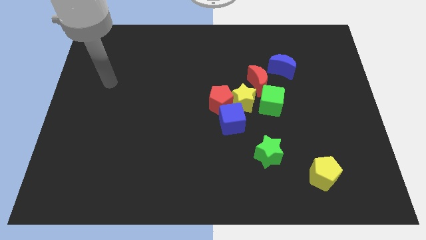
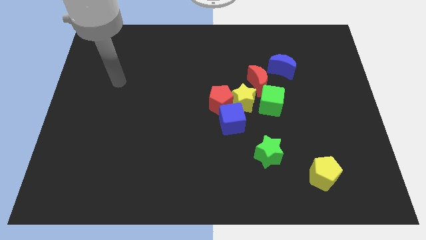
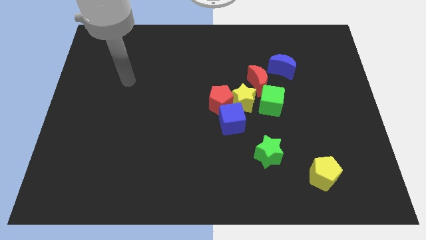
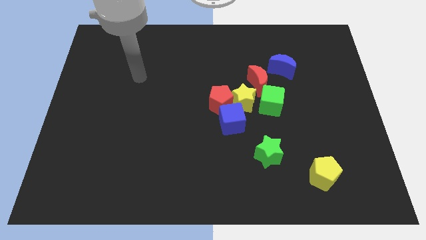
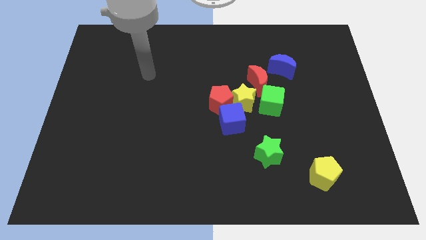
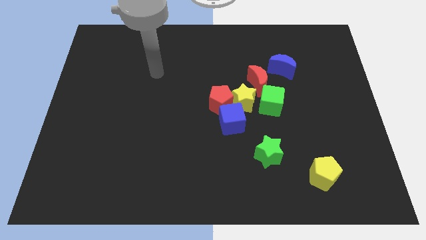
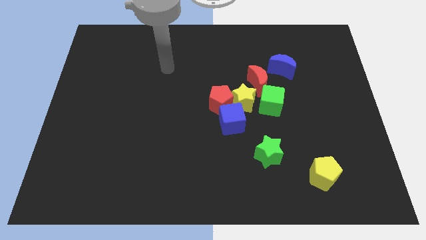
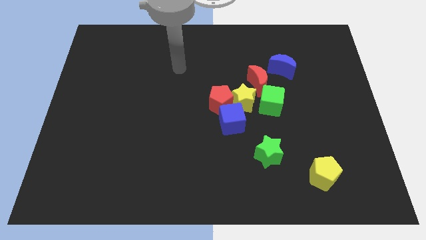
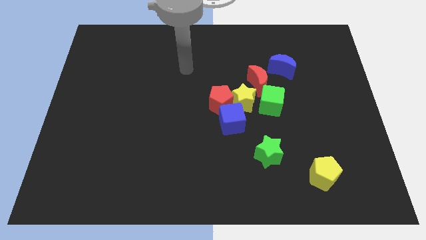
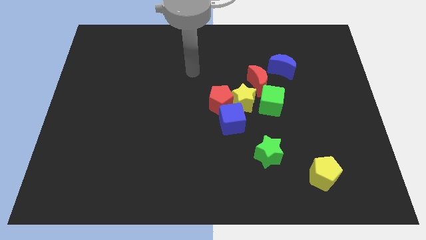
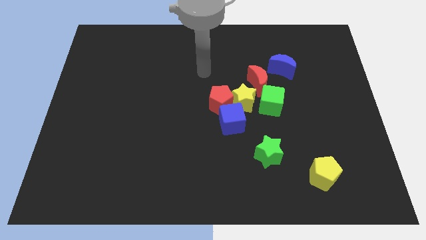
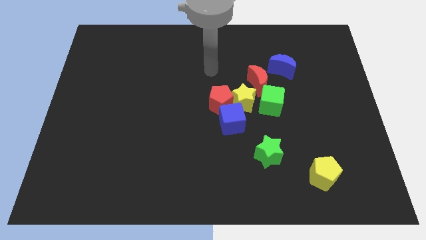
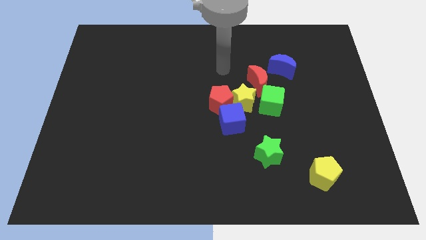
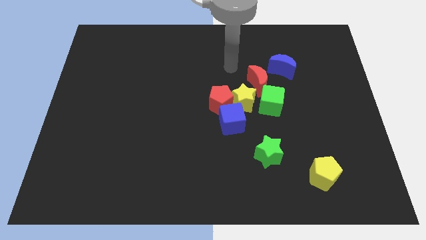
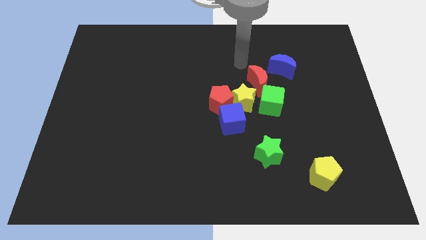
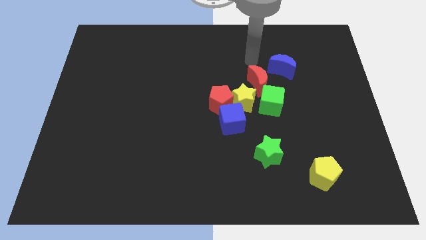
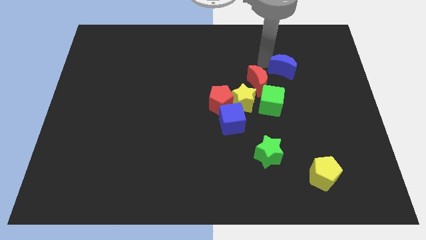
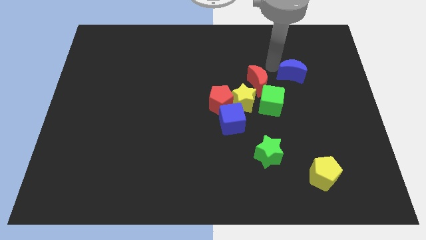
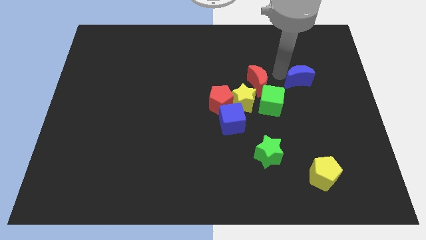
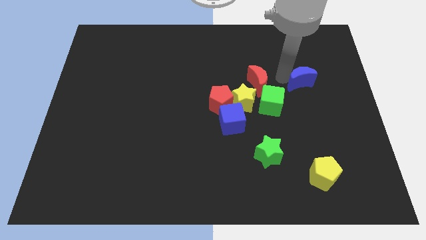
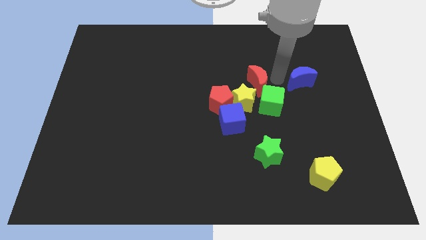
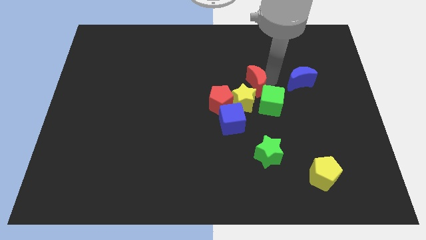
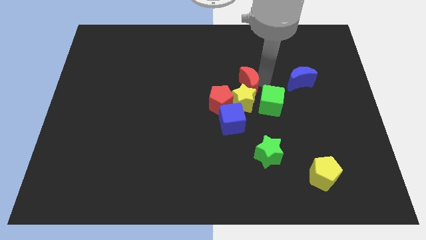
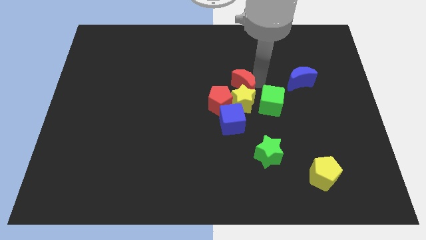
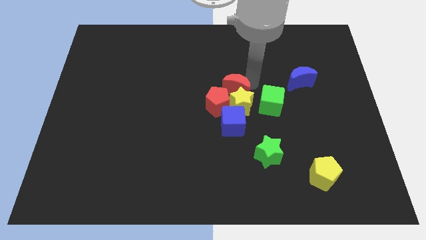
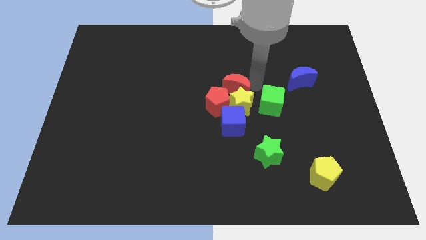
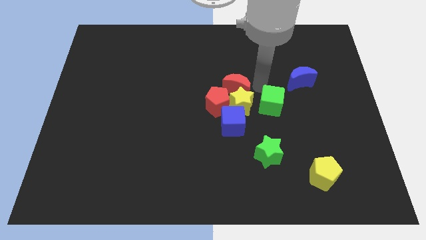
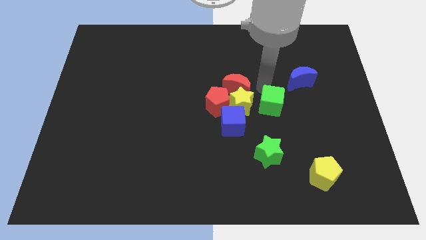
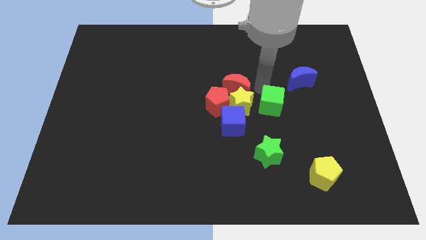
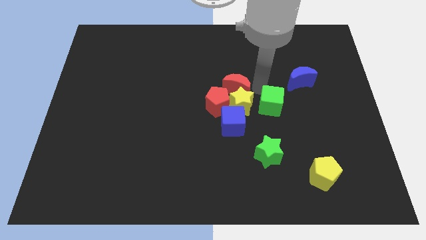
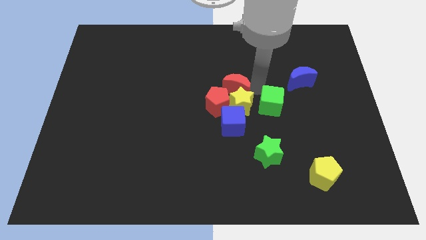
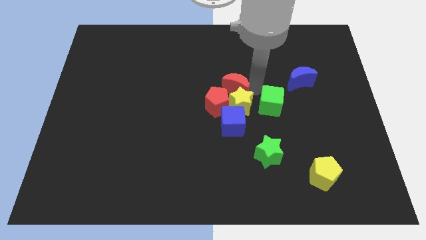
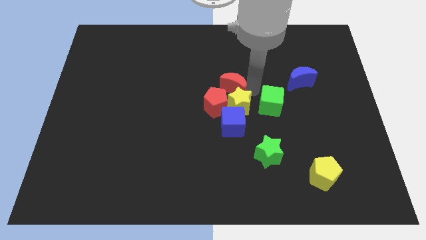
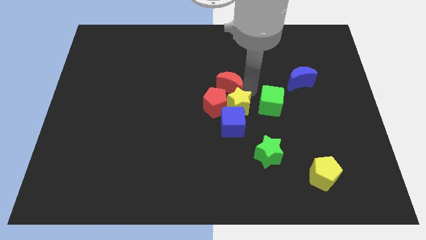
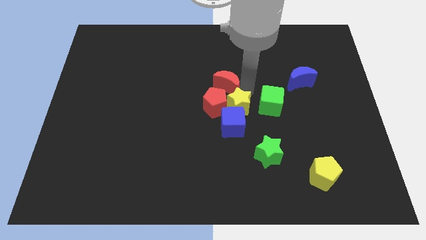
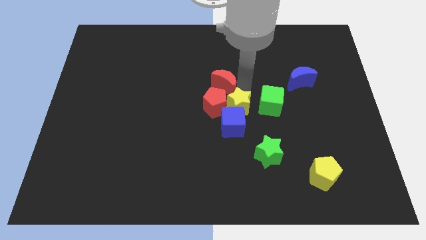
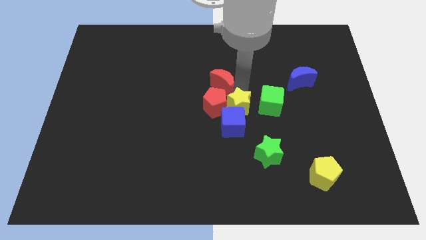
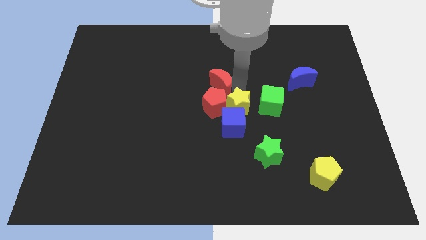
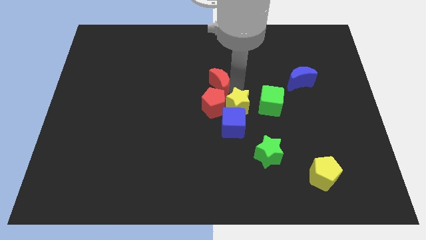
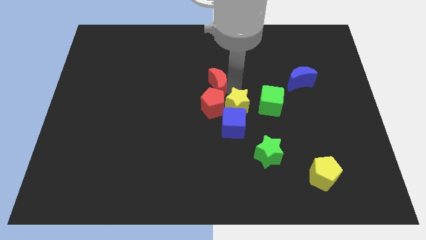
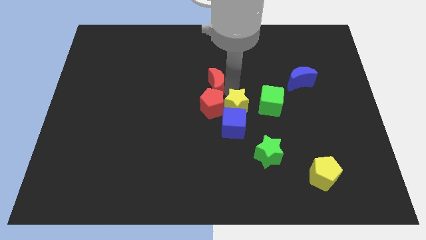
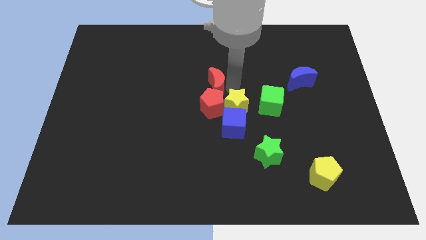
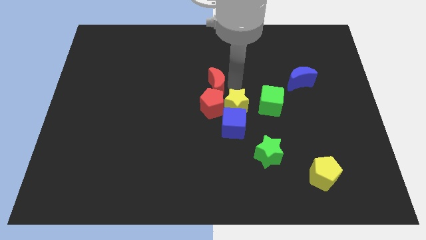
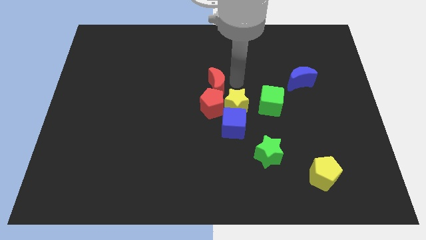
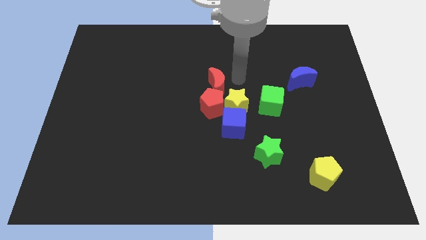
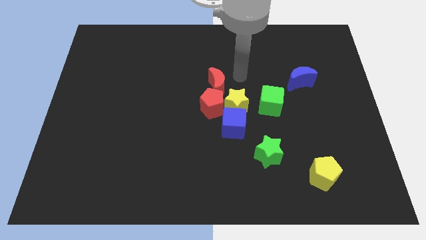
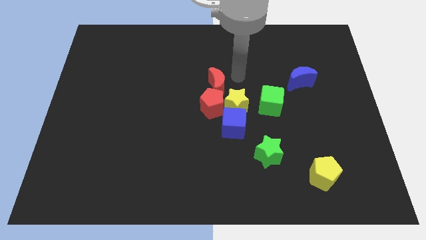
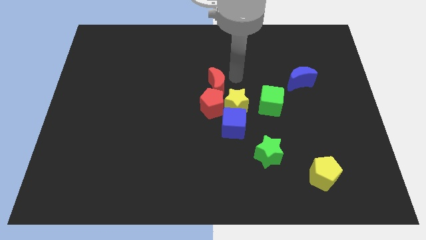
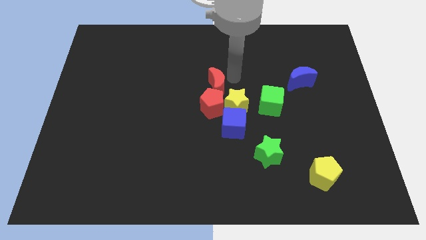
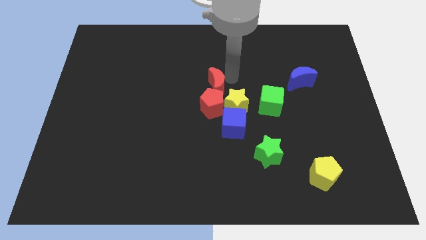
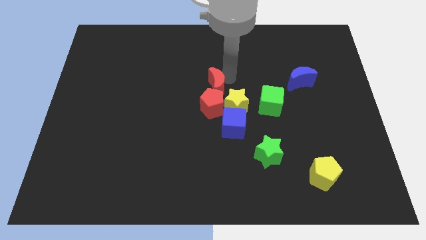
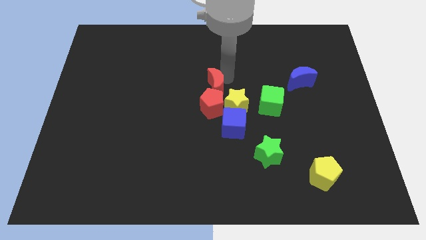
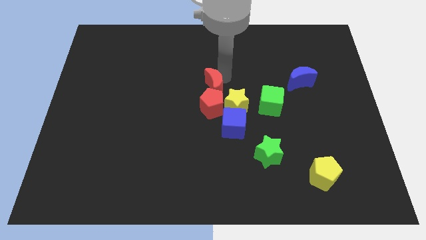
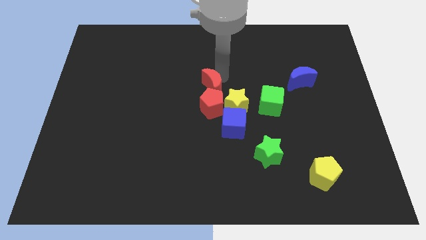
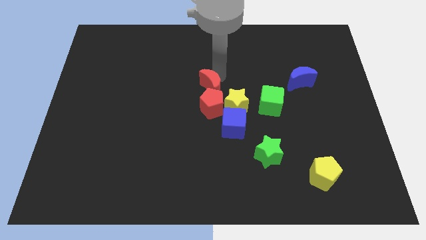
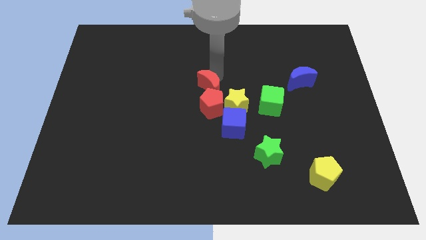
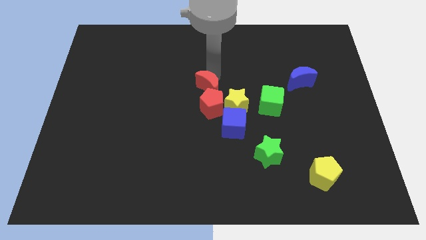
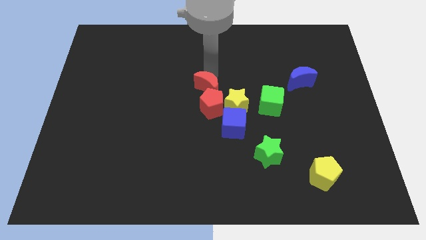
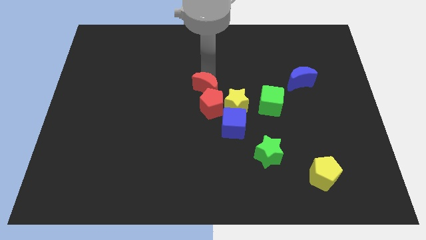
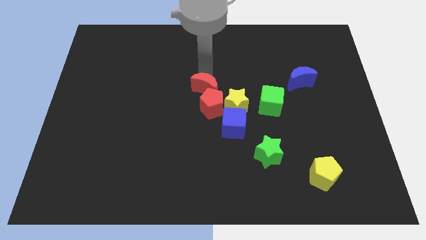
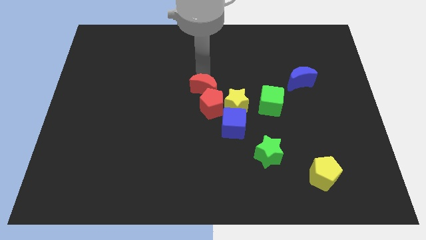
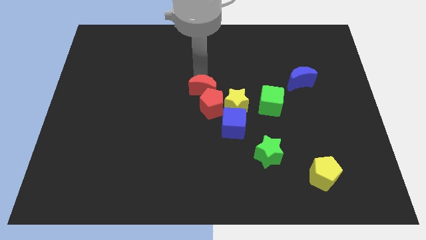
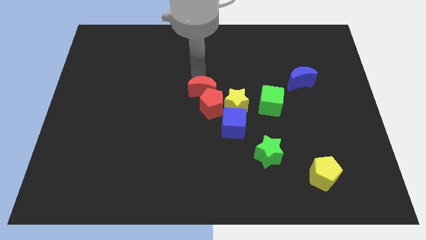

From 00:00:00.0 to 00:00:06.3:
push the red moon diagonally up and to the left of the blue cube

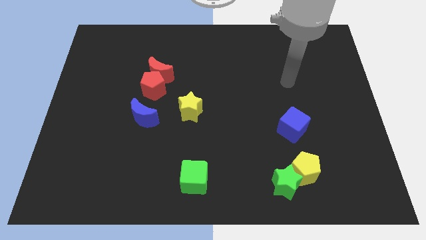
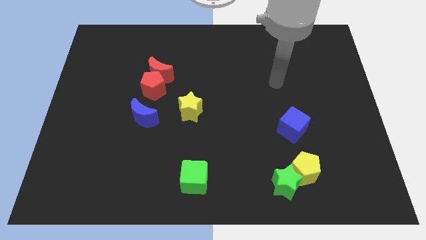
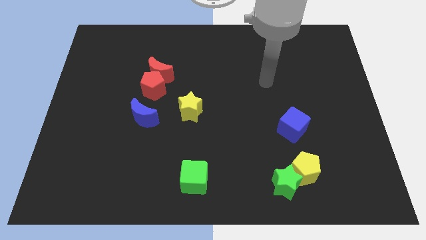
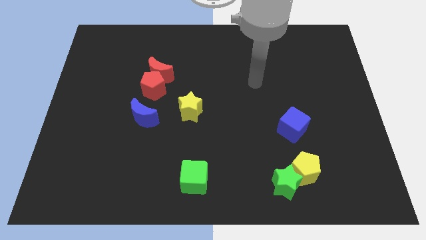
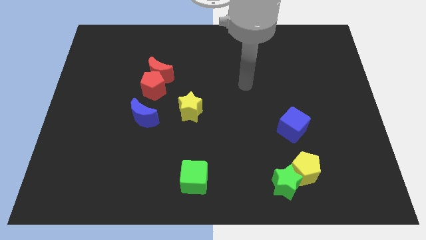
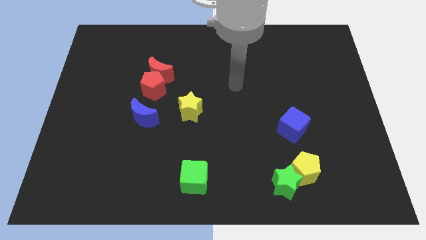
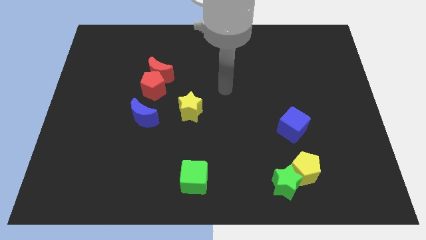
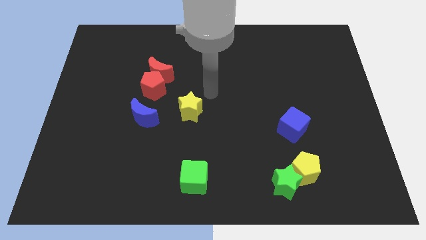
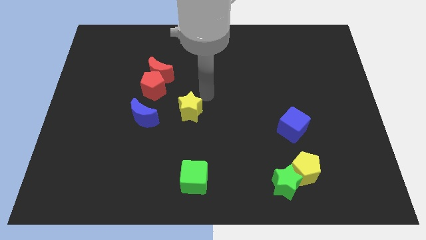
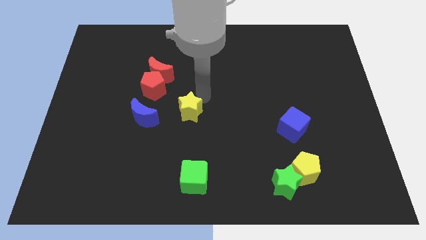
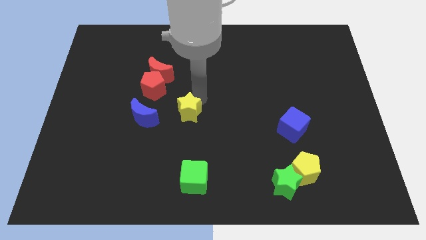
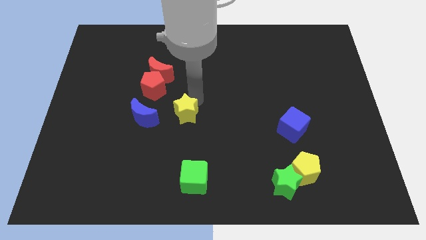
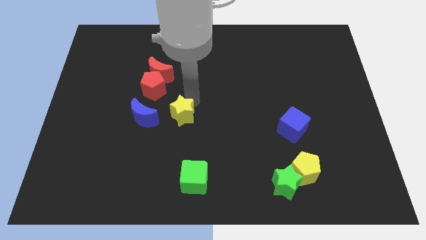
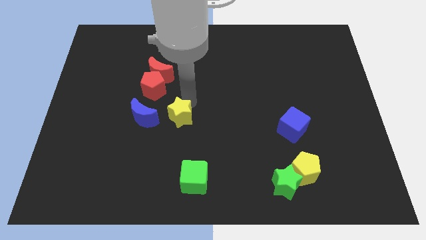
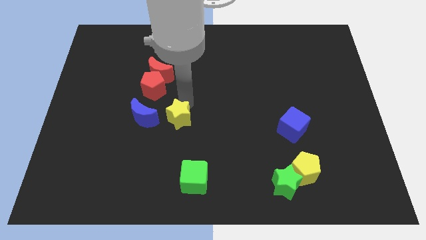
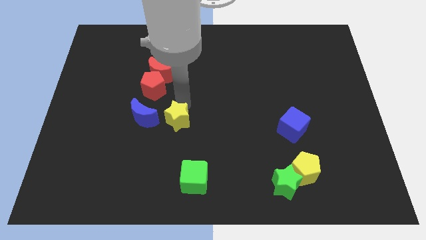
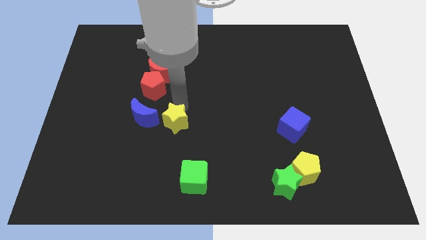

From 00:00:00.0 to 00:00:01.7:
put the yellow star to the bottom right side of the blue moon
